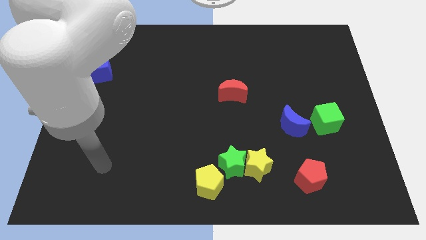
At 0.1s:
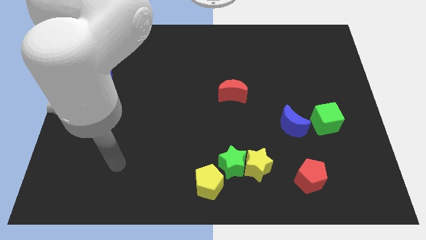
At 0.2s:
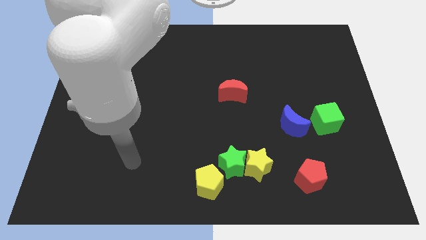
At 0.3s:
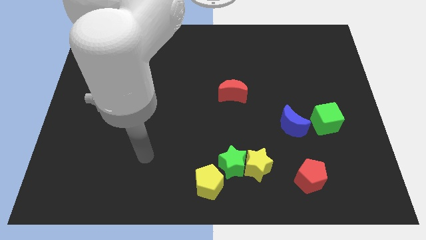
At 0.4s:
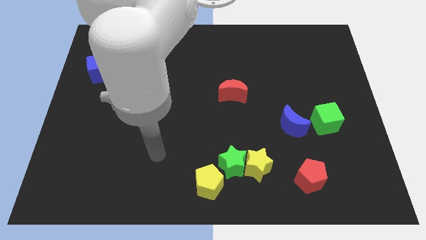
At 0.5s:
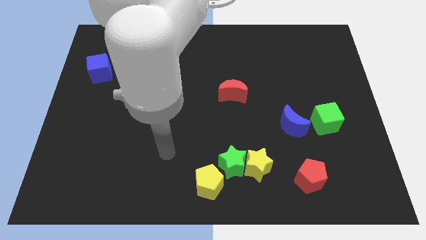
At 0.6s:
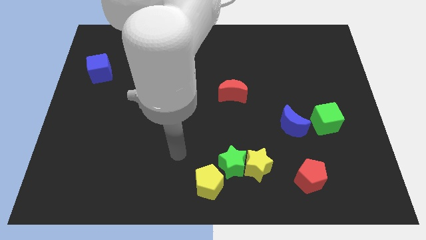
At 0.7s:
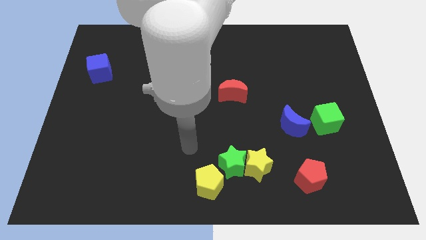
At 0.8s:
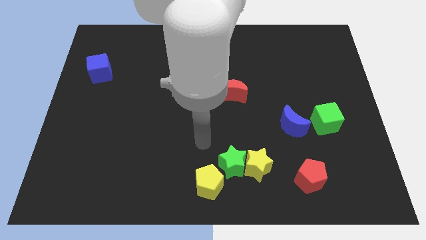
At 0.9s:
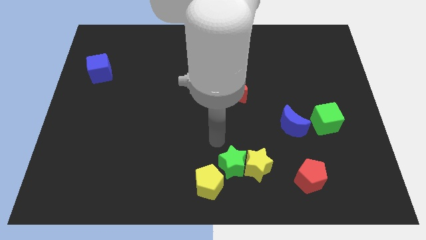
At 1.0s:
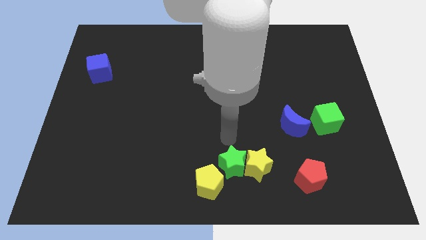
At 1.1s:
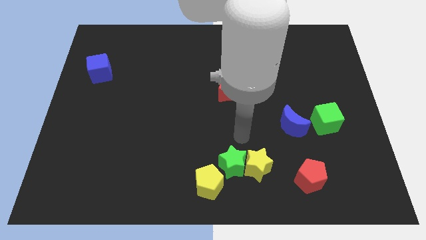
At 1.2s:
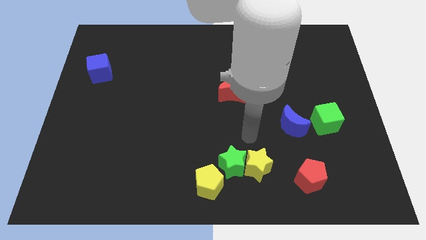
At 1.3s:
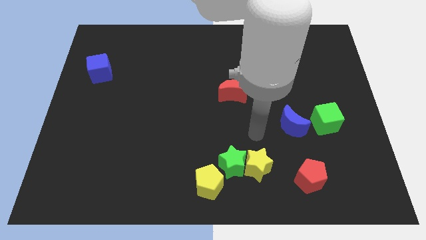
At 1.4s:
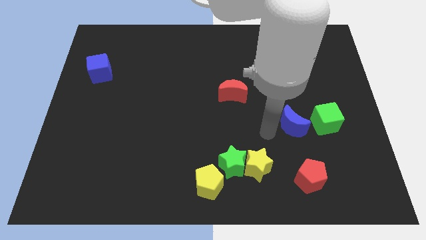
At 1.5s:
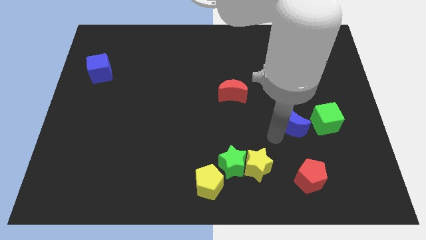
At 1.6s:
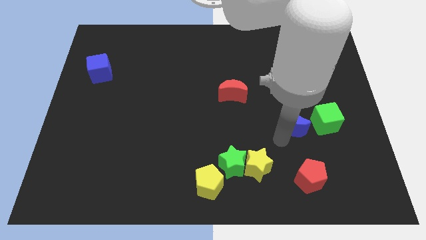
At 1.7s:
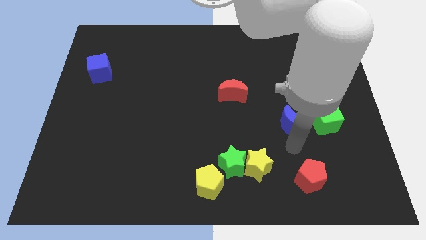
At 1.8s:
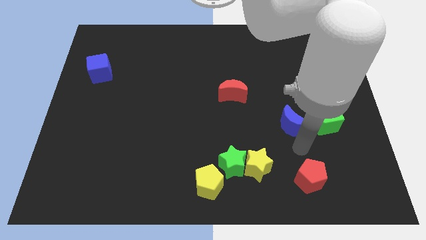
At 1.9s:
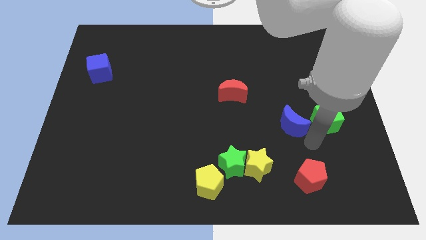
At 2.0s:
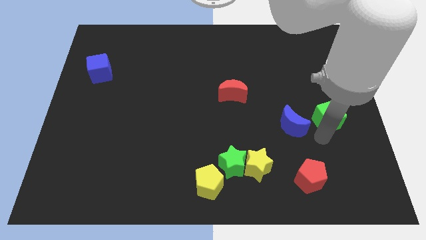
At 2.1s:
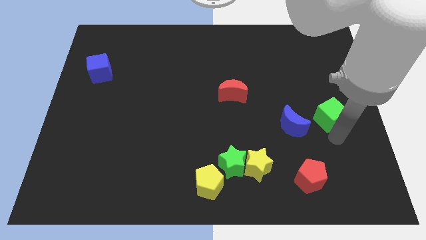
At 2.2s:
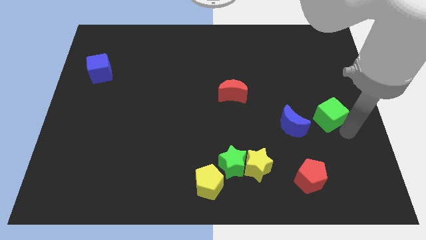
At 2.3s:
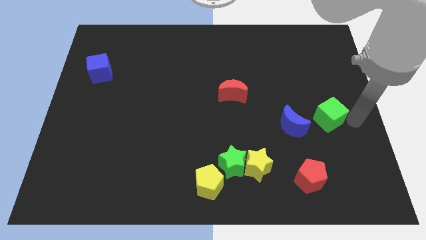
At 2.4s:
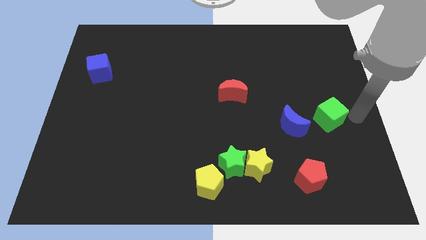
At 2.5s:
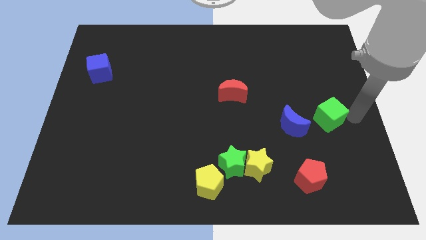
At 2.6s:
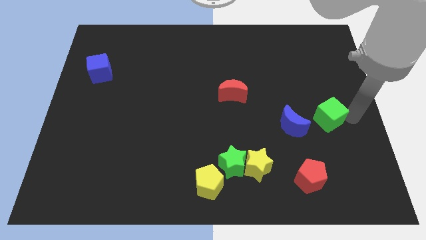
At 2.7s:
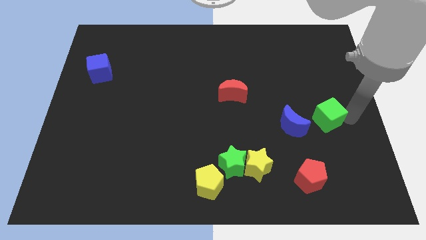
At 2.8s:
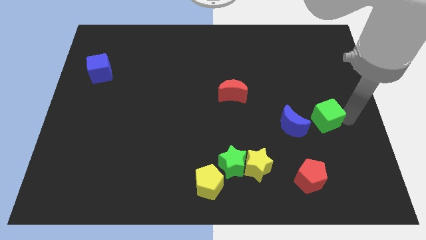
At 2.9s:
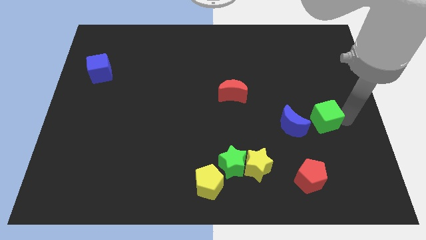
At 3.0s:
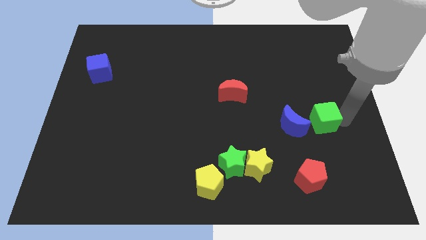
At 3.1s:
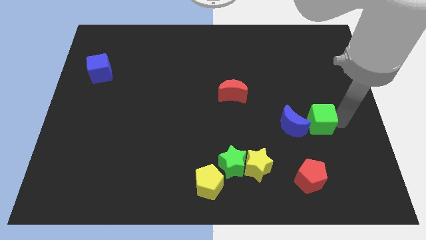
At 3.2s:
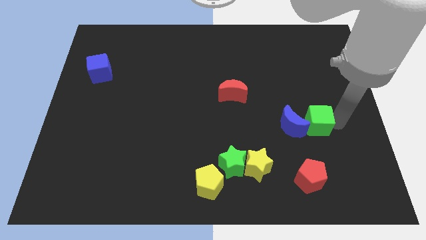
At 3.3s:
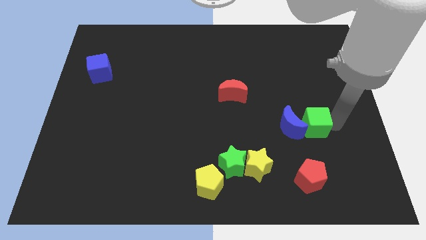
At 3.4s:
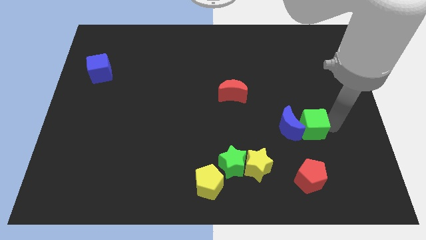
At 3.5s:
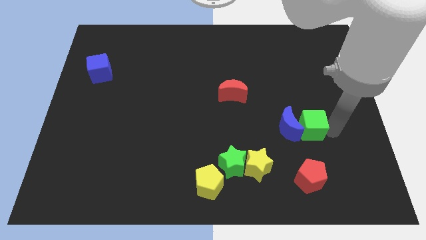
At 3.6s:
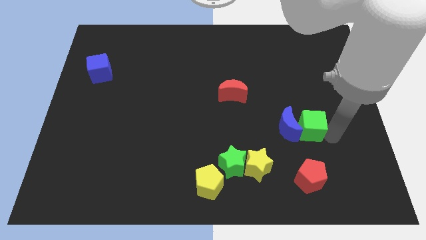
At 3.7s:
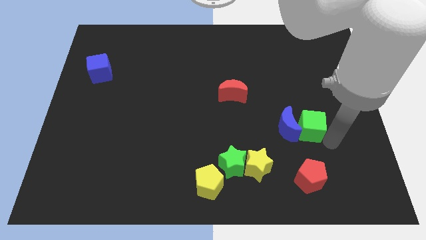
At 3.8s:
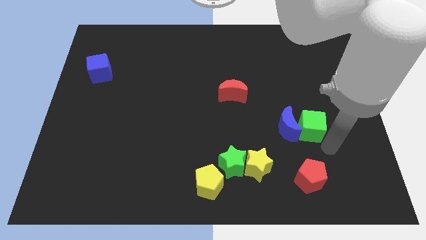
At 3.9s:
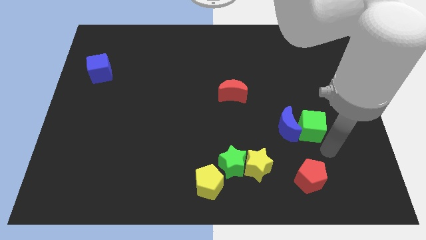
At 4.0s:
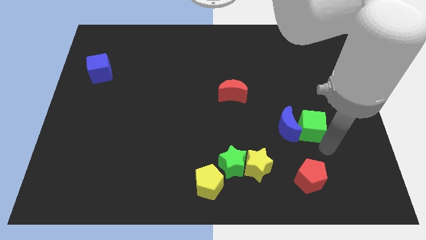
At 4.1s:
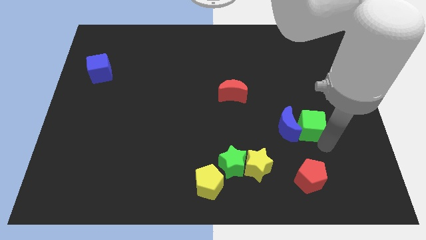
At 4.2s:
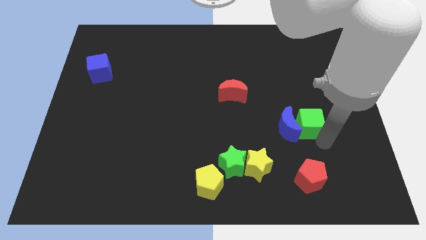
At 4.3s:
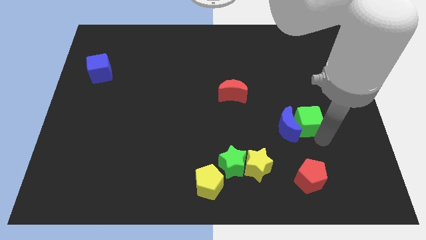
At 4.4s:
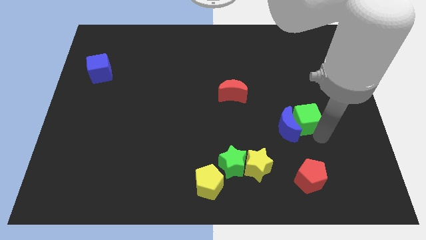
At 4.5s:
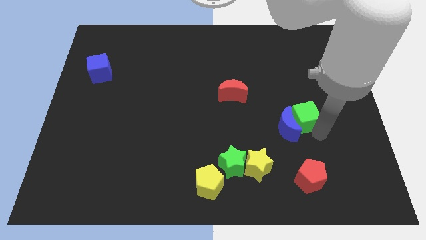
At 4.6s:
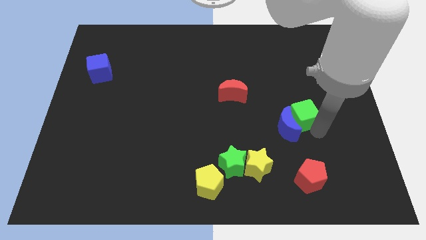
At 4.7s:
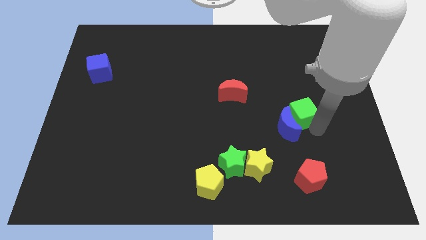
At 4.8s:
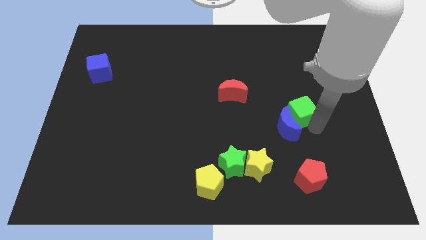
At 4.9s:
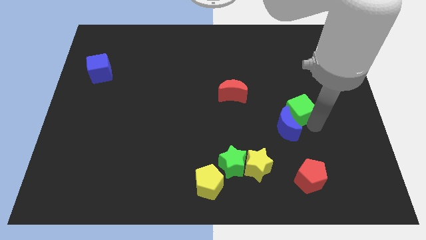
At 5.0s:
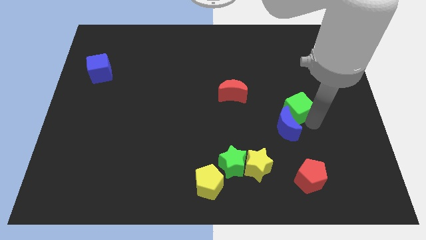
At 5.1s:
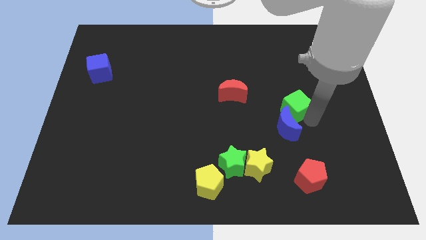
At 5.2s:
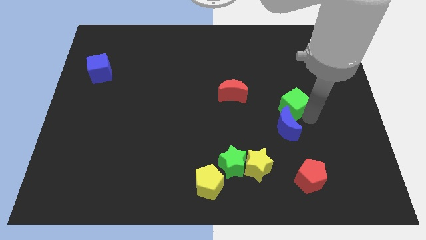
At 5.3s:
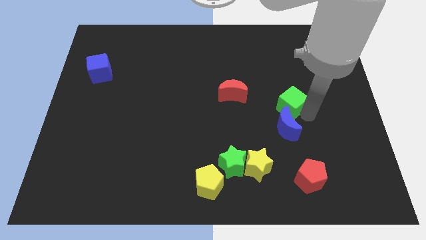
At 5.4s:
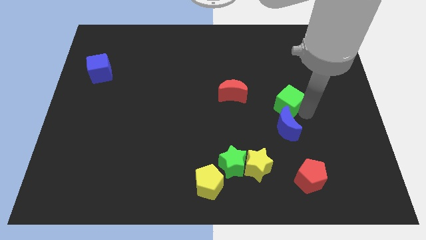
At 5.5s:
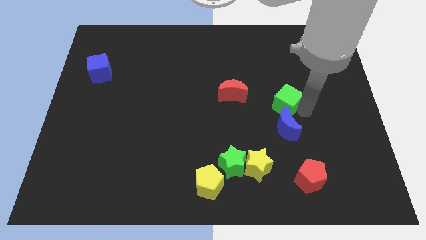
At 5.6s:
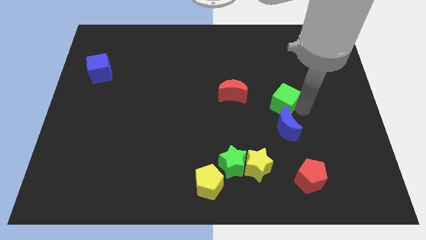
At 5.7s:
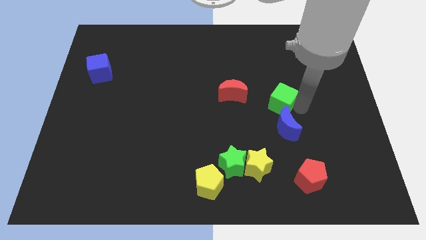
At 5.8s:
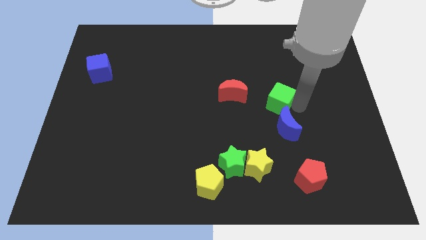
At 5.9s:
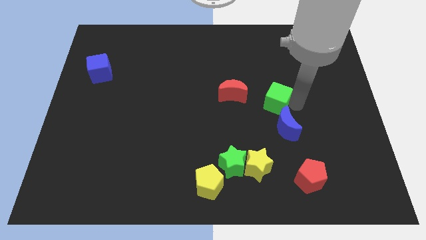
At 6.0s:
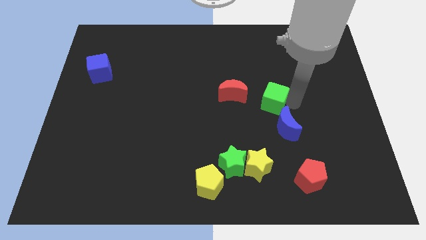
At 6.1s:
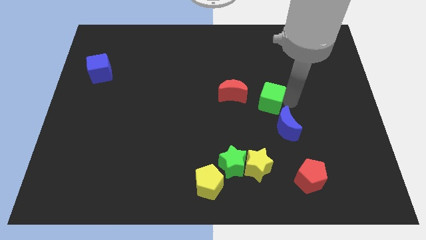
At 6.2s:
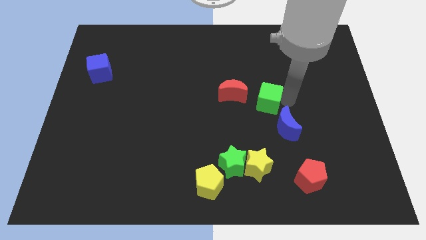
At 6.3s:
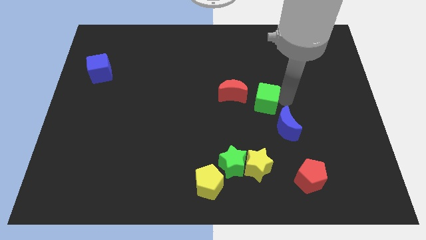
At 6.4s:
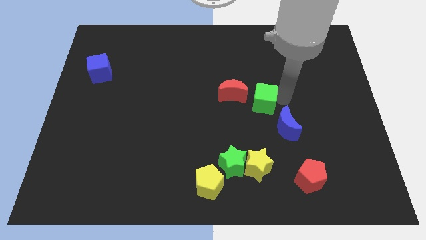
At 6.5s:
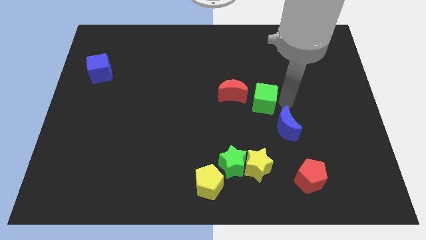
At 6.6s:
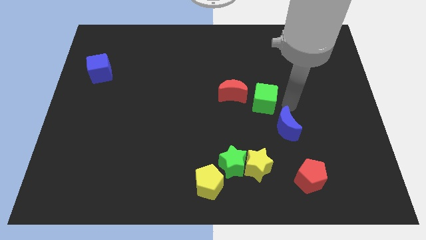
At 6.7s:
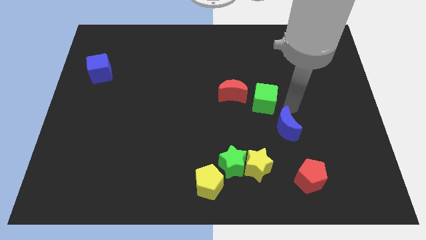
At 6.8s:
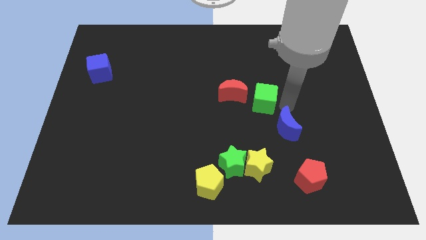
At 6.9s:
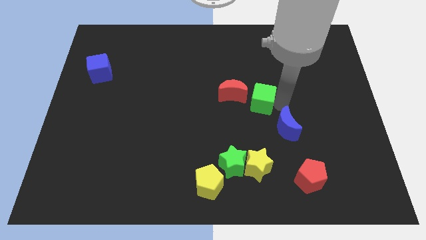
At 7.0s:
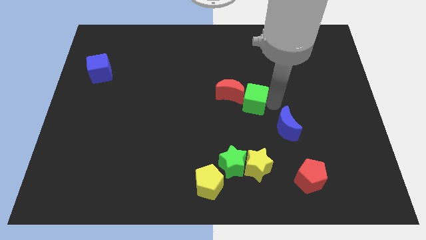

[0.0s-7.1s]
put the green cube next to the red moon
